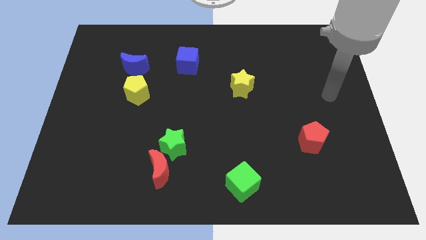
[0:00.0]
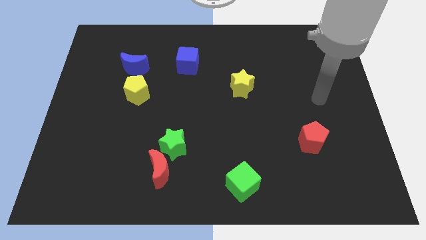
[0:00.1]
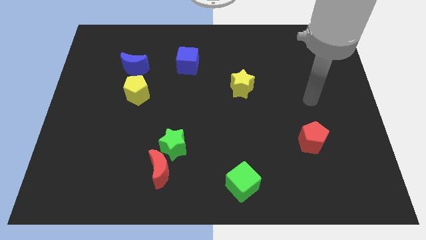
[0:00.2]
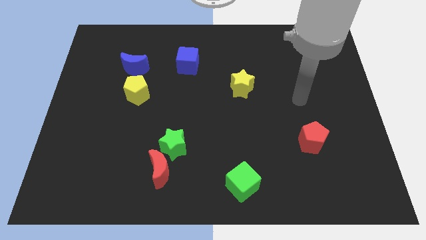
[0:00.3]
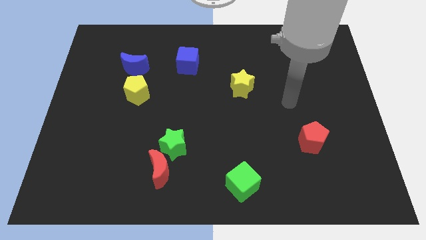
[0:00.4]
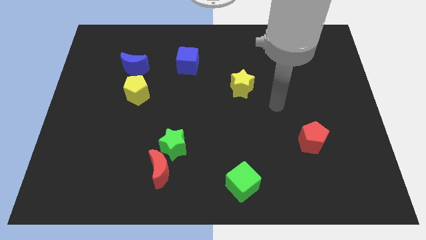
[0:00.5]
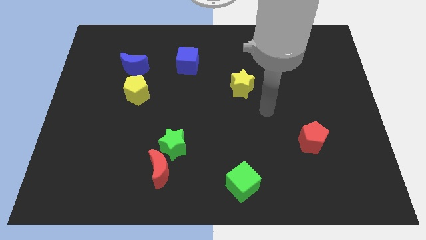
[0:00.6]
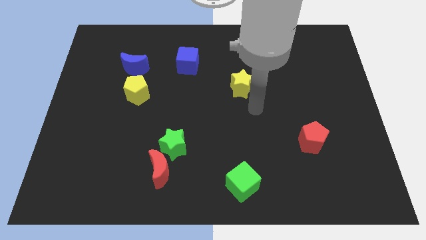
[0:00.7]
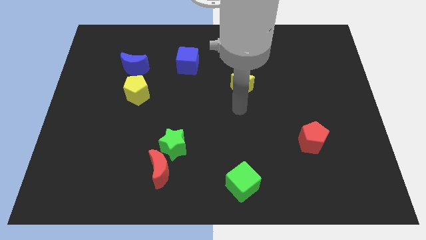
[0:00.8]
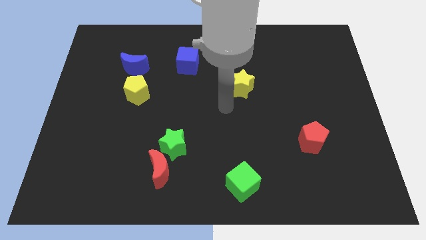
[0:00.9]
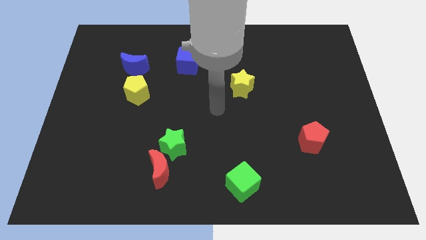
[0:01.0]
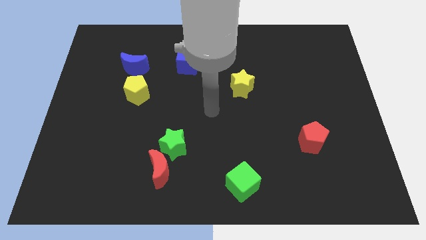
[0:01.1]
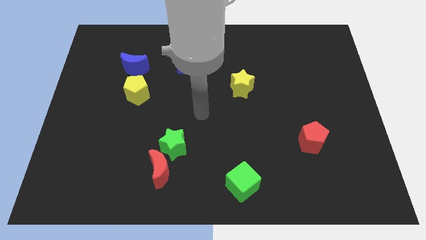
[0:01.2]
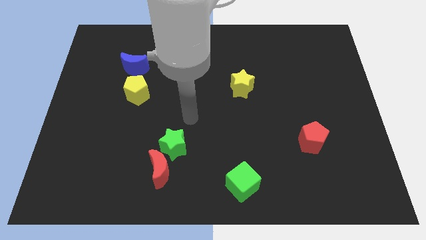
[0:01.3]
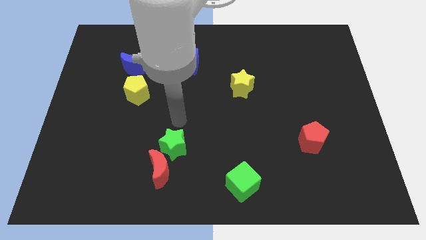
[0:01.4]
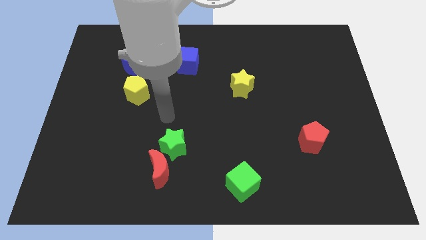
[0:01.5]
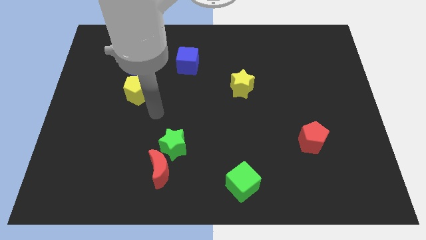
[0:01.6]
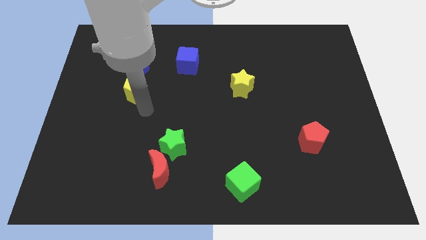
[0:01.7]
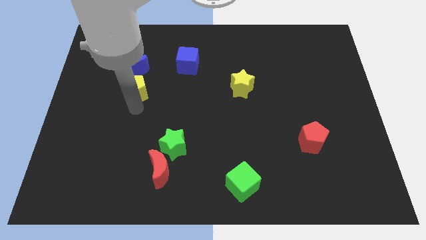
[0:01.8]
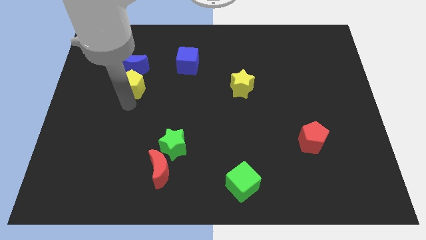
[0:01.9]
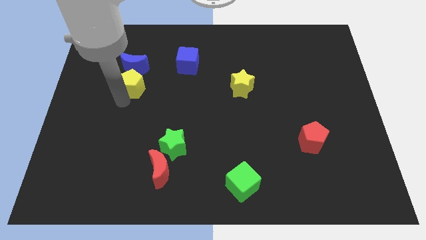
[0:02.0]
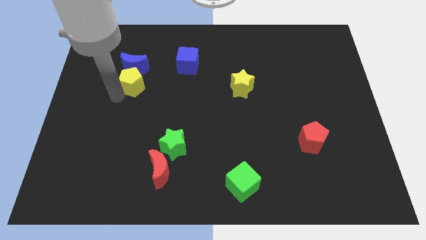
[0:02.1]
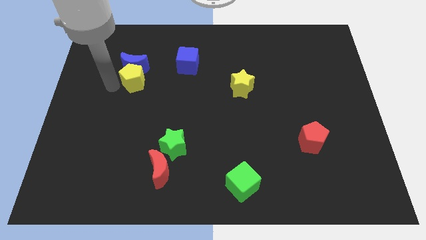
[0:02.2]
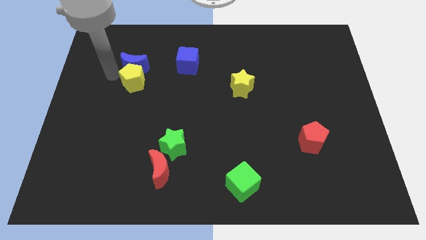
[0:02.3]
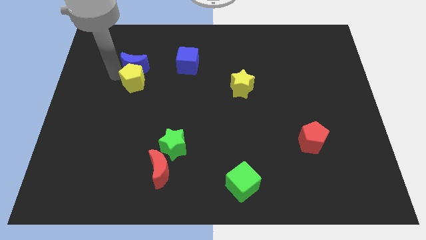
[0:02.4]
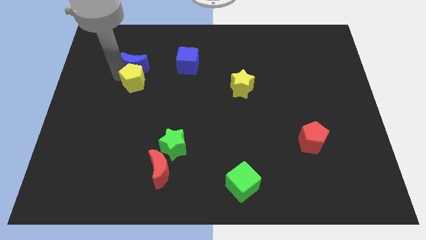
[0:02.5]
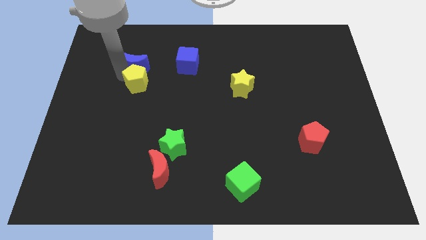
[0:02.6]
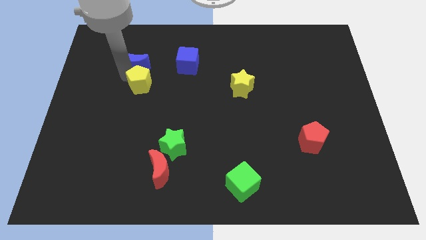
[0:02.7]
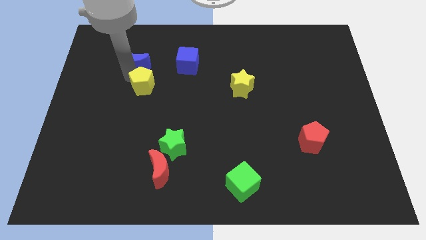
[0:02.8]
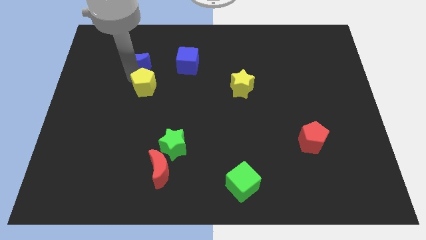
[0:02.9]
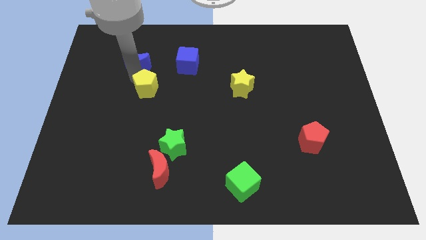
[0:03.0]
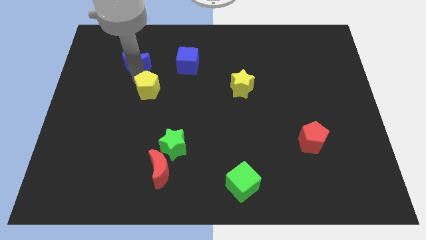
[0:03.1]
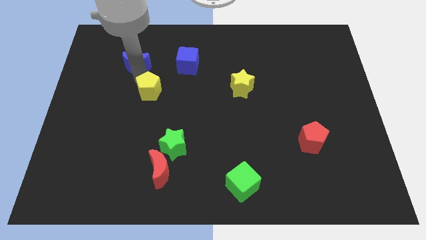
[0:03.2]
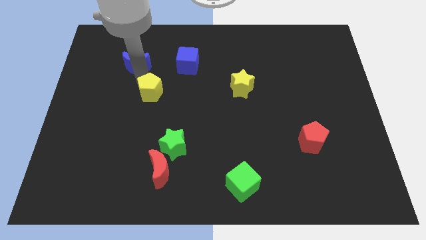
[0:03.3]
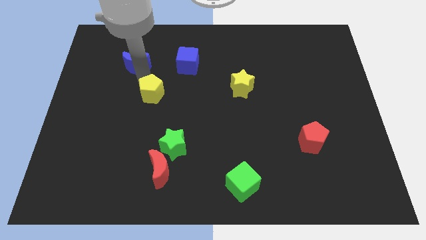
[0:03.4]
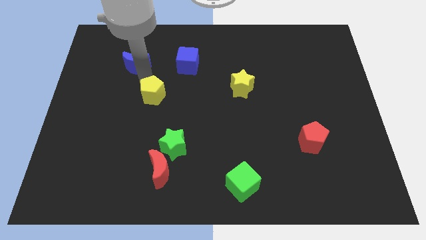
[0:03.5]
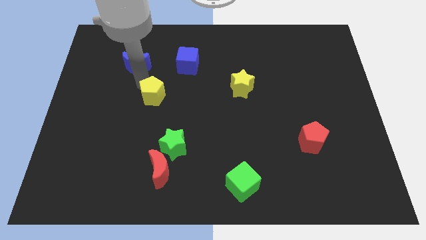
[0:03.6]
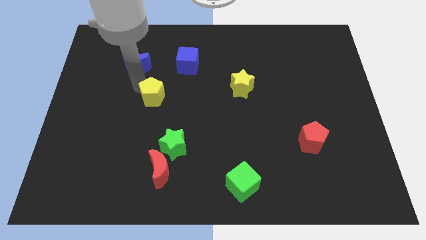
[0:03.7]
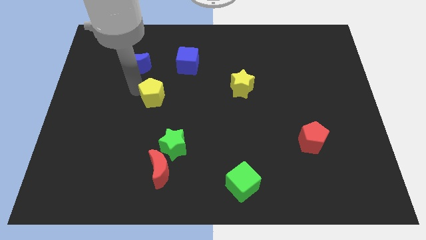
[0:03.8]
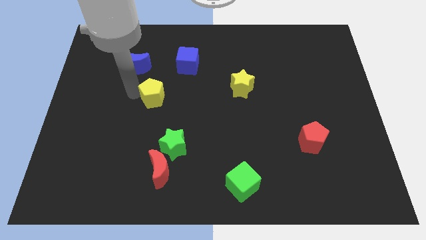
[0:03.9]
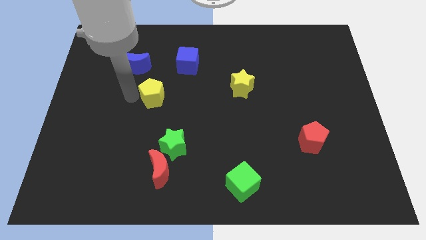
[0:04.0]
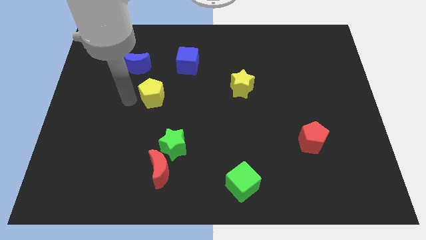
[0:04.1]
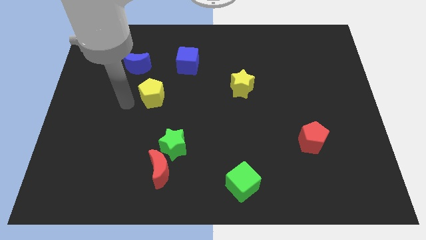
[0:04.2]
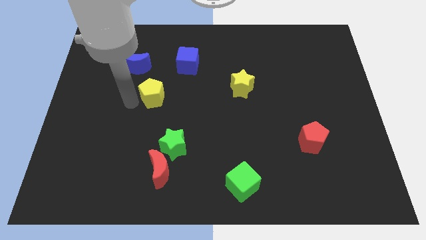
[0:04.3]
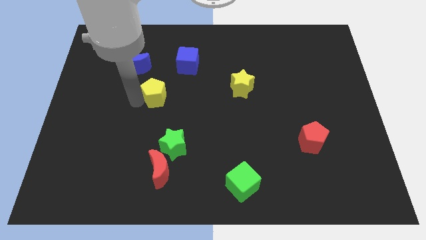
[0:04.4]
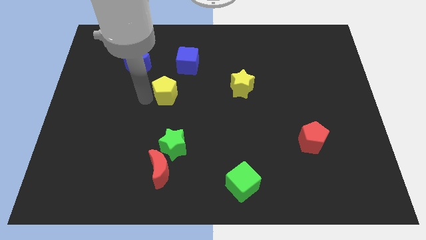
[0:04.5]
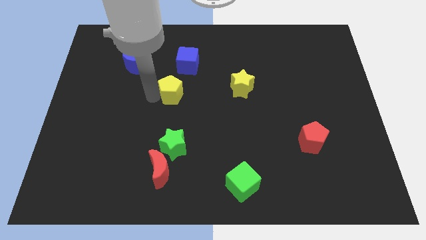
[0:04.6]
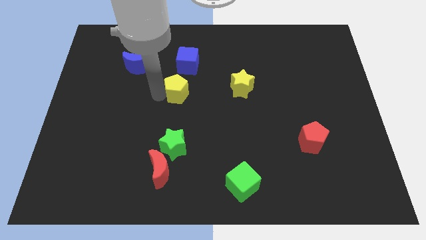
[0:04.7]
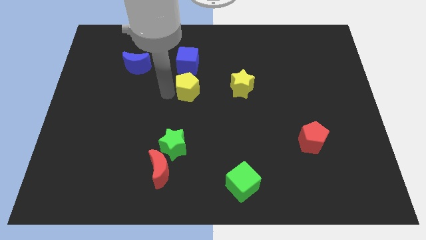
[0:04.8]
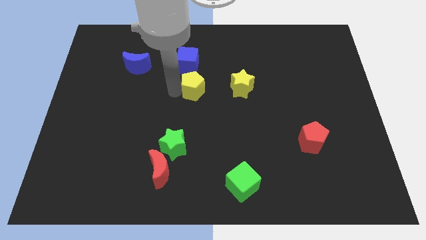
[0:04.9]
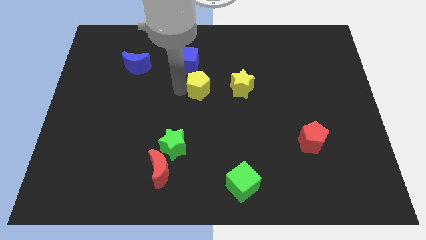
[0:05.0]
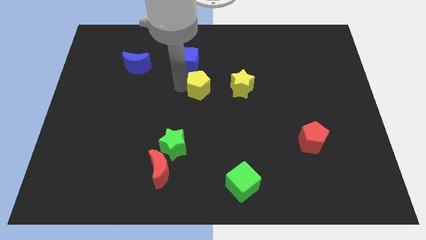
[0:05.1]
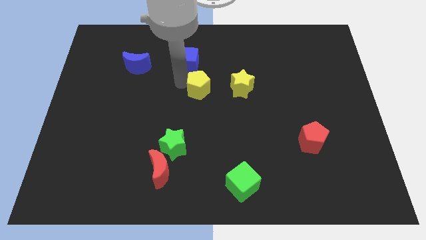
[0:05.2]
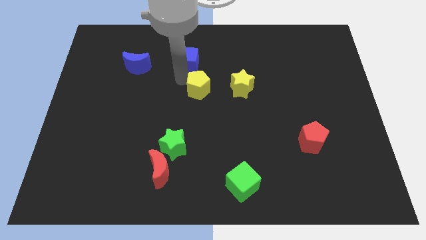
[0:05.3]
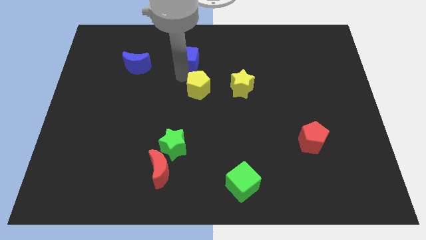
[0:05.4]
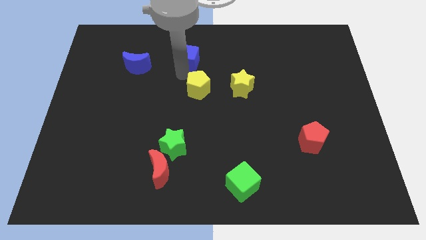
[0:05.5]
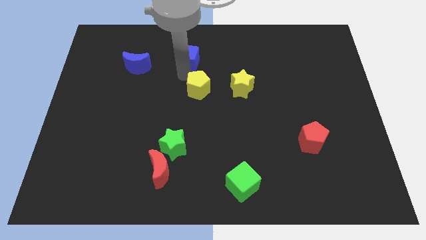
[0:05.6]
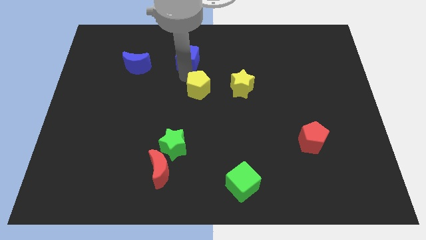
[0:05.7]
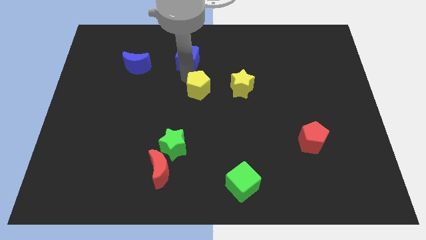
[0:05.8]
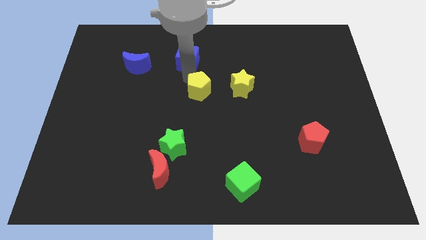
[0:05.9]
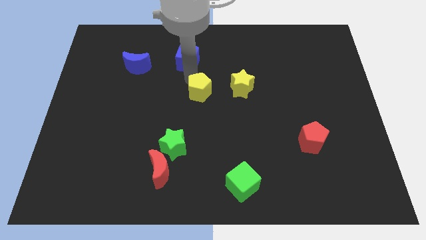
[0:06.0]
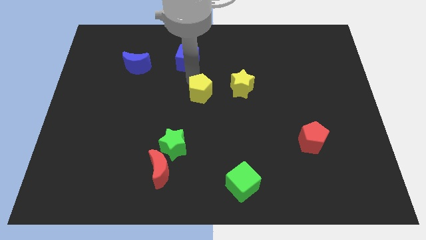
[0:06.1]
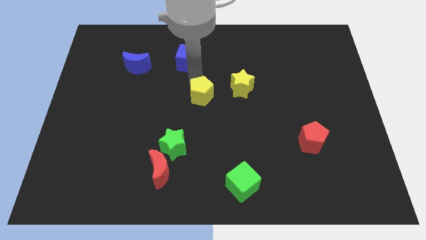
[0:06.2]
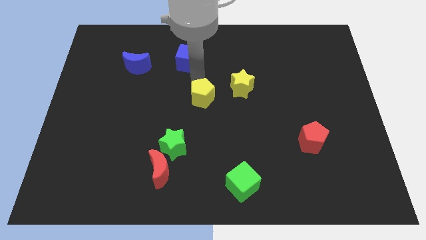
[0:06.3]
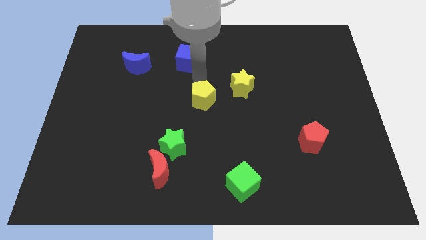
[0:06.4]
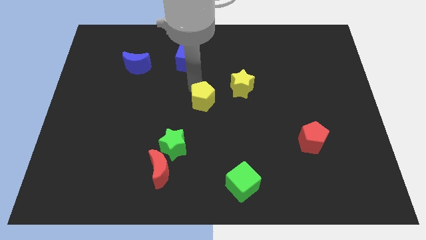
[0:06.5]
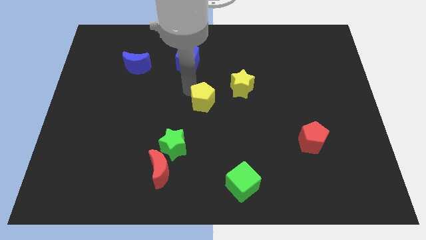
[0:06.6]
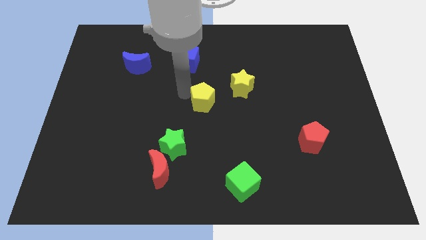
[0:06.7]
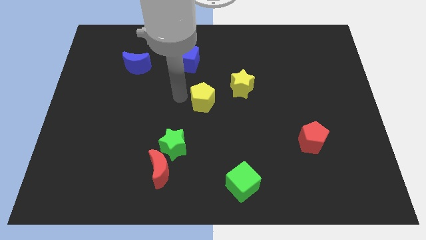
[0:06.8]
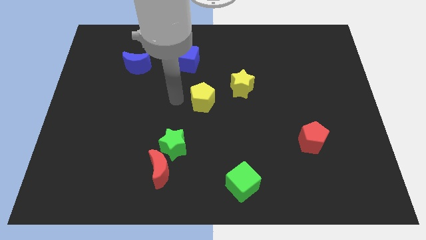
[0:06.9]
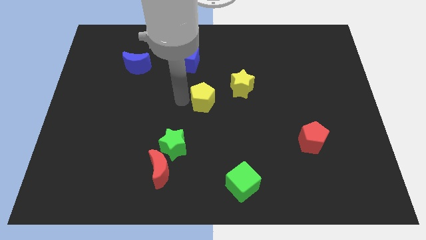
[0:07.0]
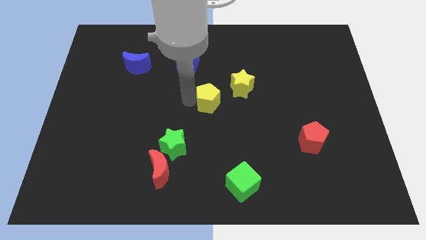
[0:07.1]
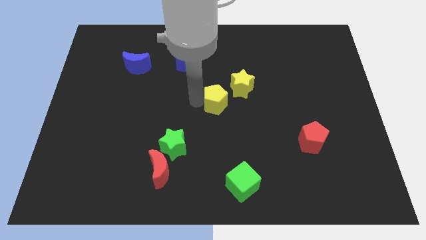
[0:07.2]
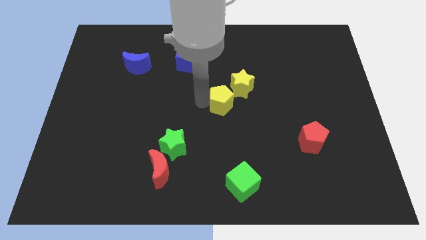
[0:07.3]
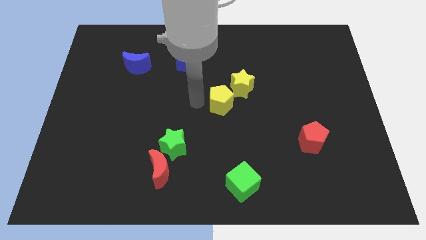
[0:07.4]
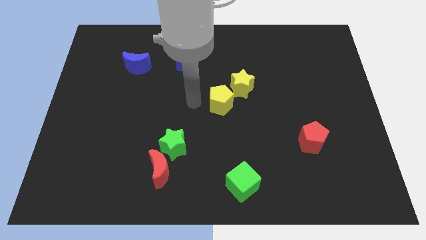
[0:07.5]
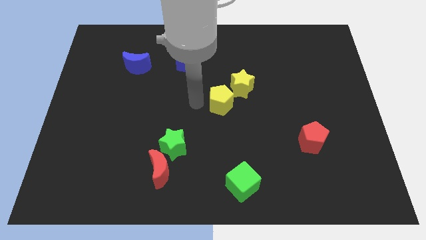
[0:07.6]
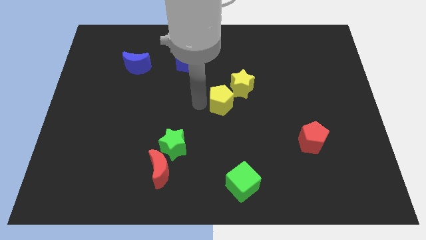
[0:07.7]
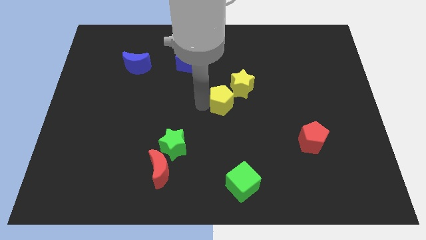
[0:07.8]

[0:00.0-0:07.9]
slide the yellow pentagon to the right

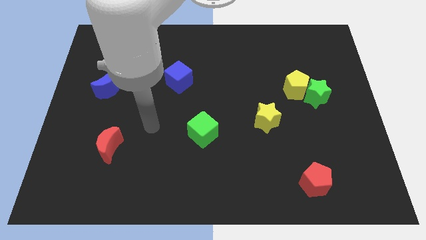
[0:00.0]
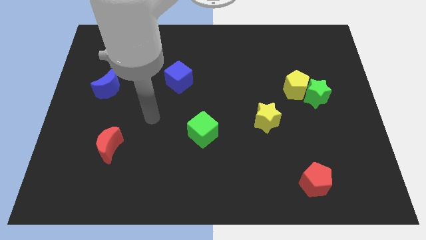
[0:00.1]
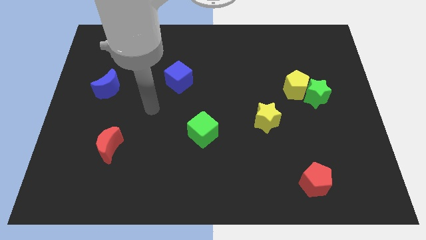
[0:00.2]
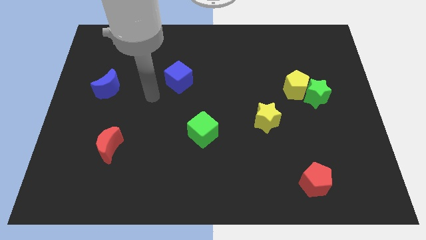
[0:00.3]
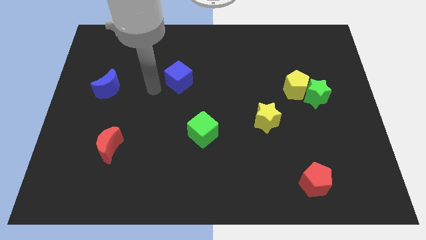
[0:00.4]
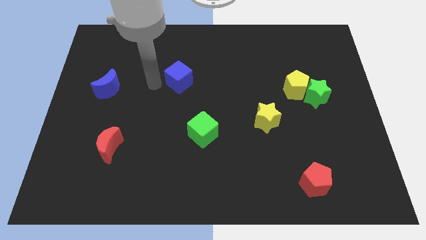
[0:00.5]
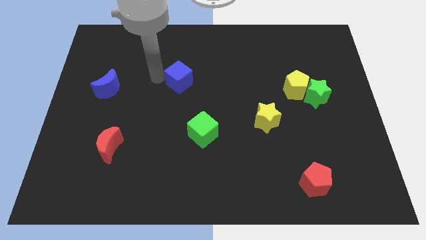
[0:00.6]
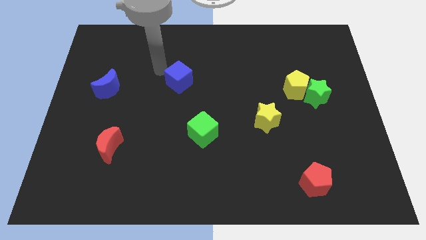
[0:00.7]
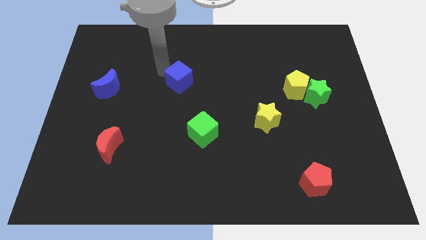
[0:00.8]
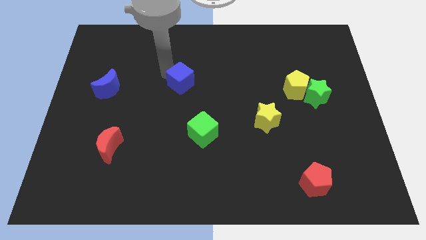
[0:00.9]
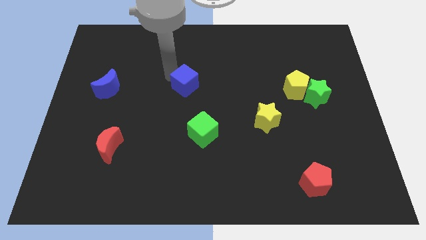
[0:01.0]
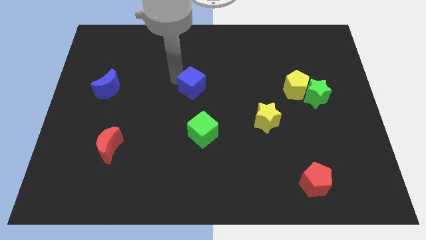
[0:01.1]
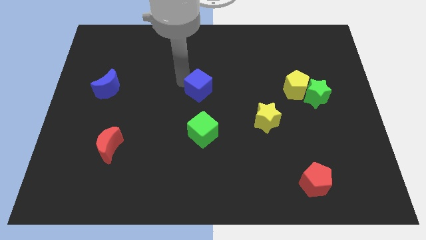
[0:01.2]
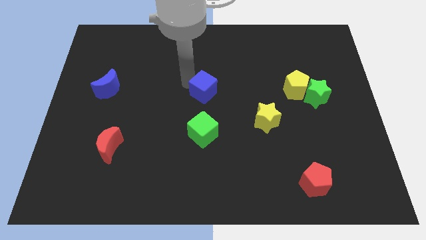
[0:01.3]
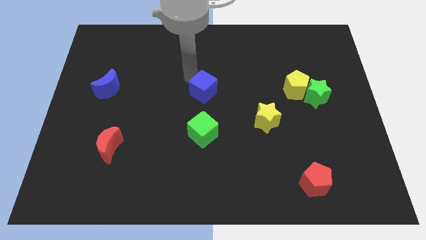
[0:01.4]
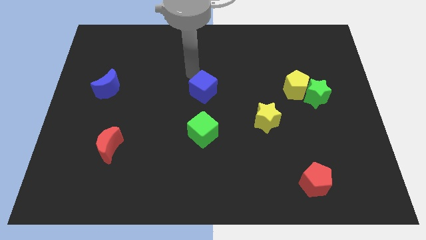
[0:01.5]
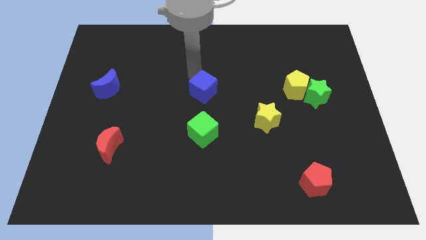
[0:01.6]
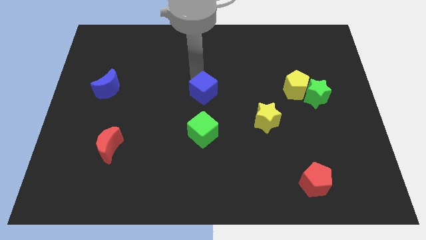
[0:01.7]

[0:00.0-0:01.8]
push the blue cube down and to the right diagonally somewhat
